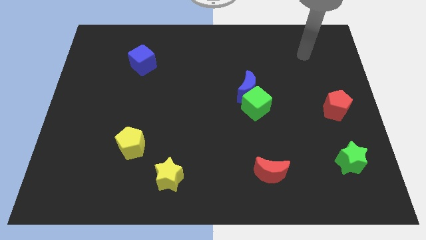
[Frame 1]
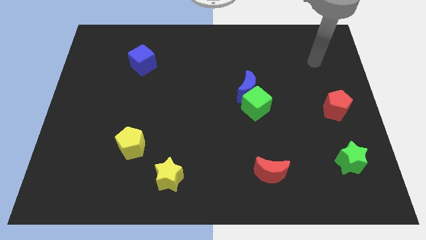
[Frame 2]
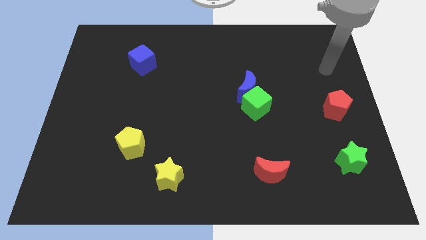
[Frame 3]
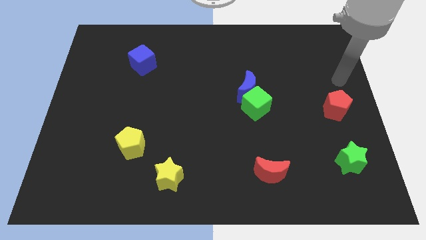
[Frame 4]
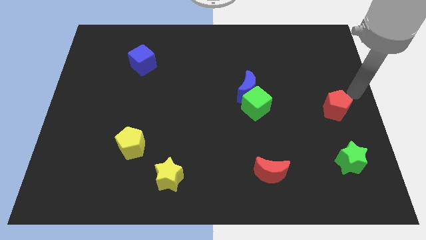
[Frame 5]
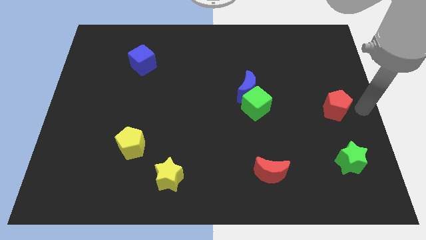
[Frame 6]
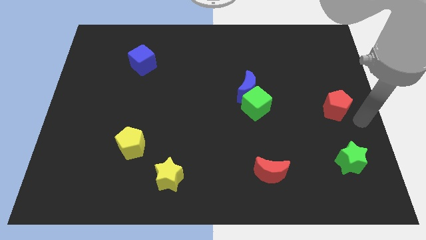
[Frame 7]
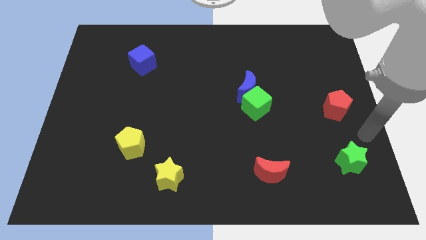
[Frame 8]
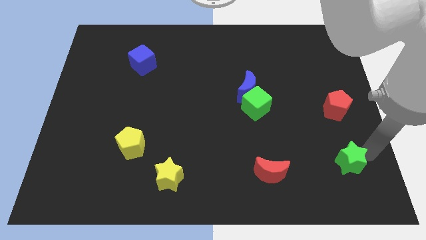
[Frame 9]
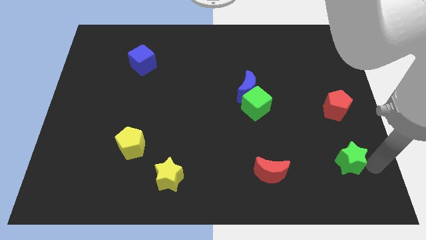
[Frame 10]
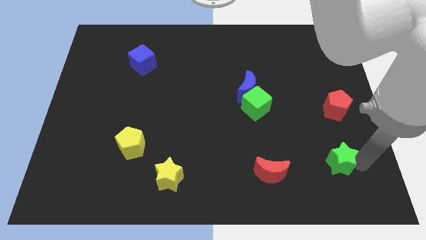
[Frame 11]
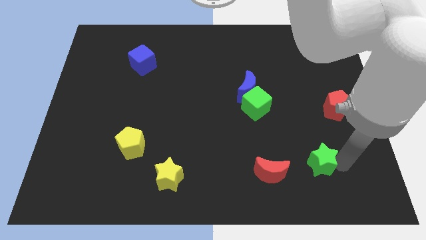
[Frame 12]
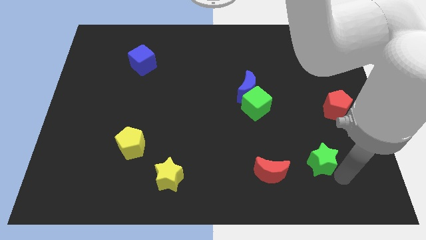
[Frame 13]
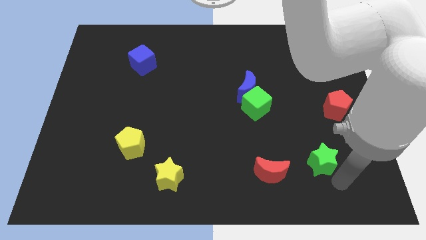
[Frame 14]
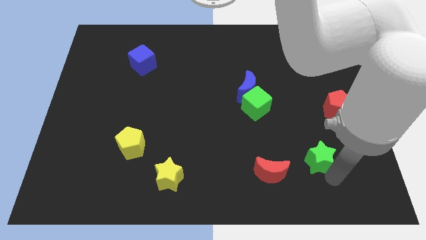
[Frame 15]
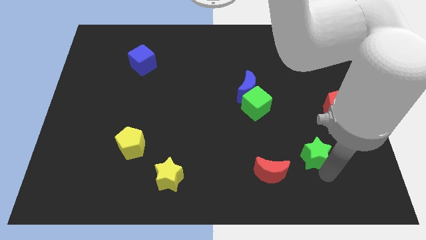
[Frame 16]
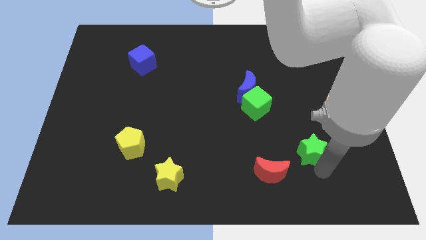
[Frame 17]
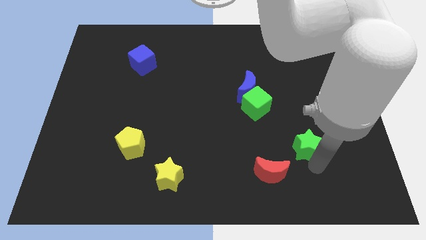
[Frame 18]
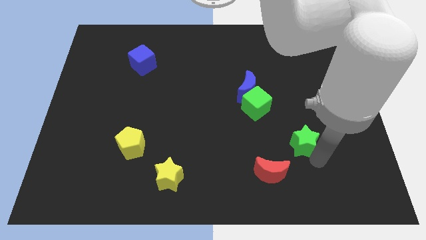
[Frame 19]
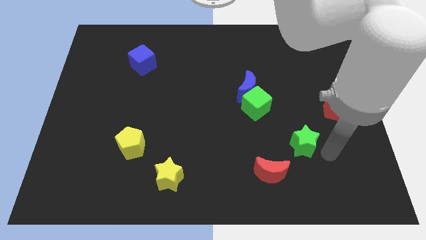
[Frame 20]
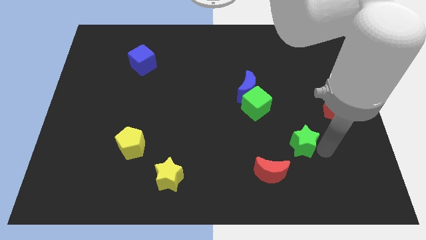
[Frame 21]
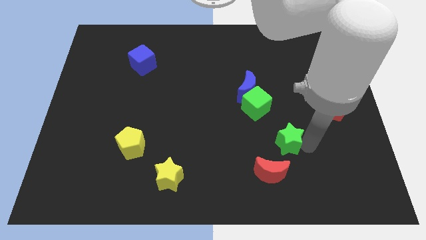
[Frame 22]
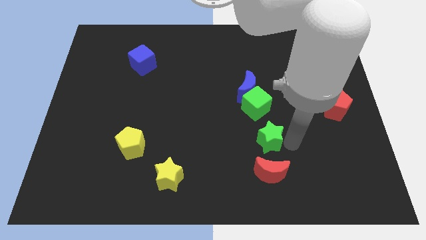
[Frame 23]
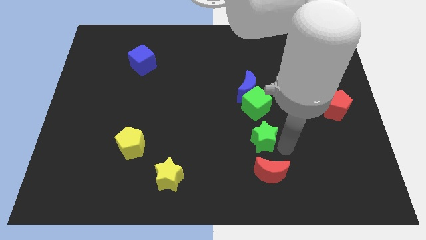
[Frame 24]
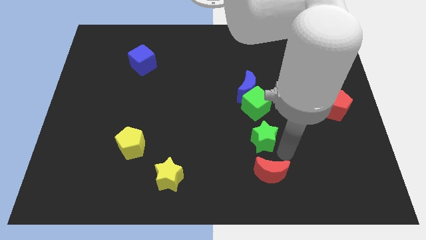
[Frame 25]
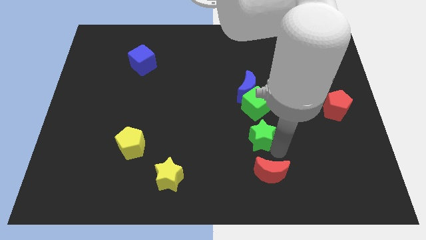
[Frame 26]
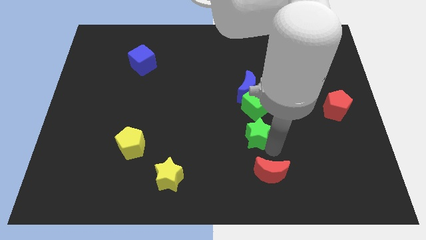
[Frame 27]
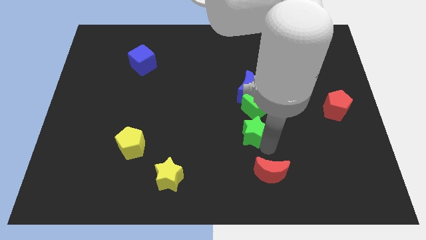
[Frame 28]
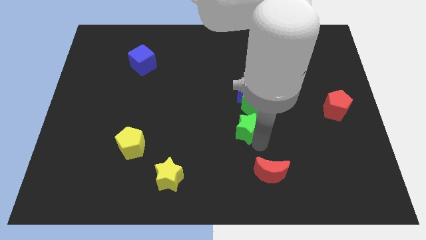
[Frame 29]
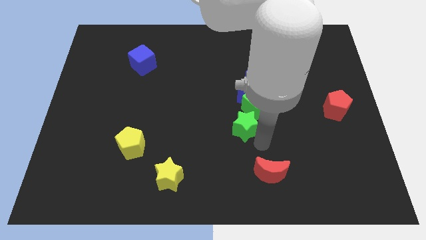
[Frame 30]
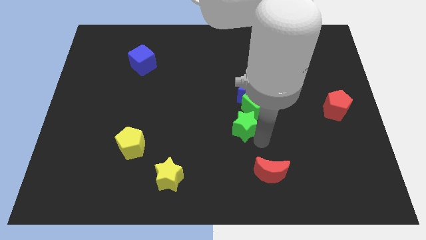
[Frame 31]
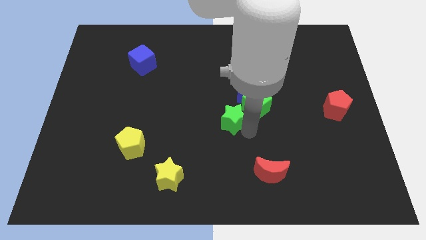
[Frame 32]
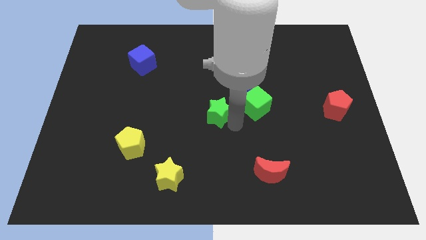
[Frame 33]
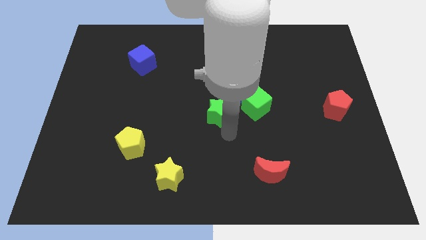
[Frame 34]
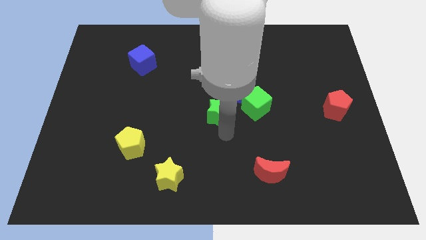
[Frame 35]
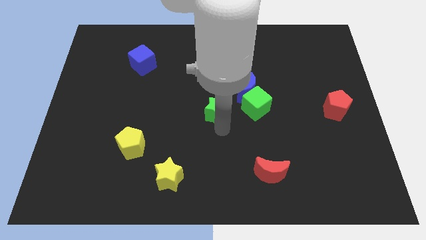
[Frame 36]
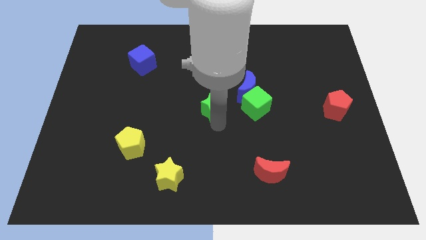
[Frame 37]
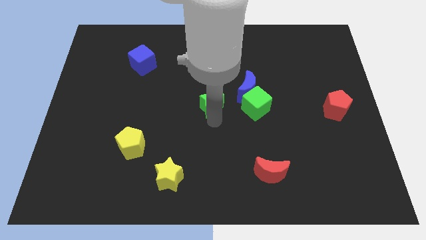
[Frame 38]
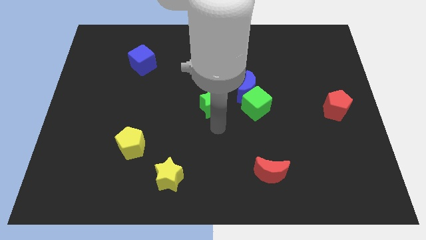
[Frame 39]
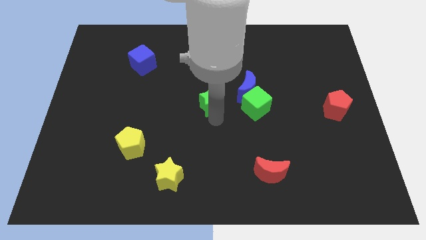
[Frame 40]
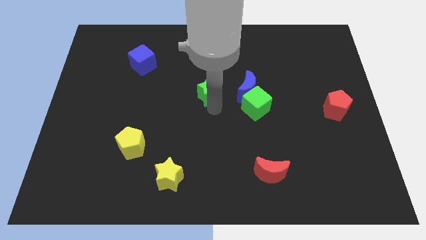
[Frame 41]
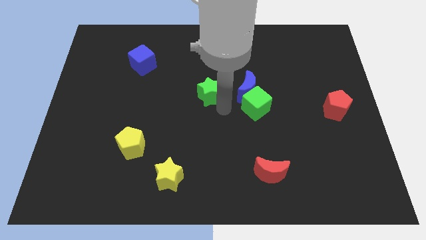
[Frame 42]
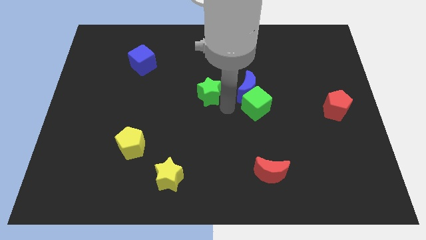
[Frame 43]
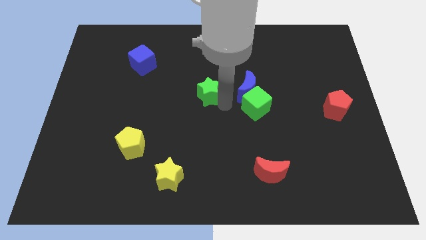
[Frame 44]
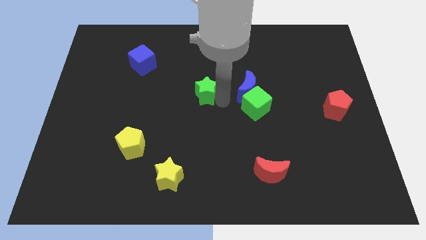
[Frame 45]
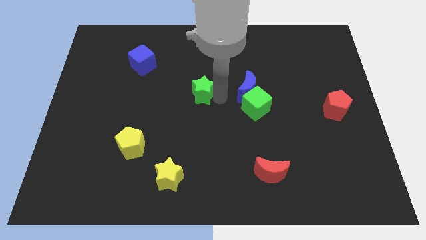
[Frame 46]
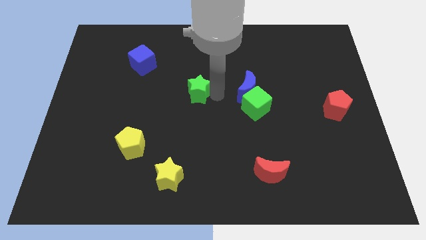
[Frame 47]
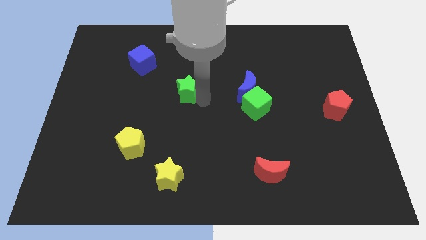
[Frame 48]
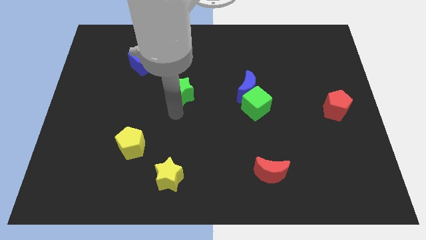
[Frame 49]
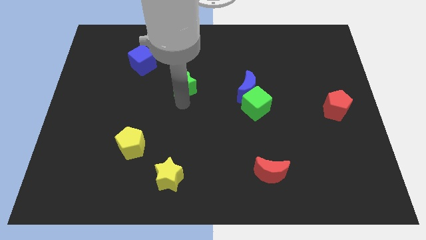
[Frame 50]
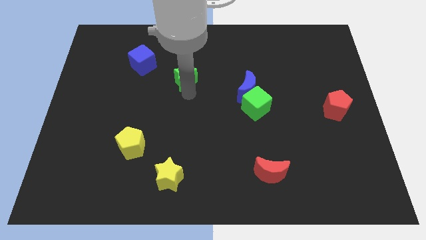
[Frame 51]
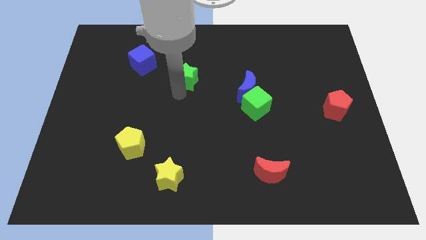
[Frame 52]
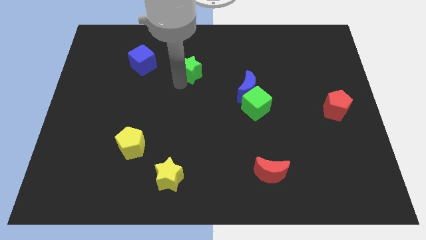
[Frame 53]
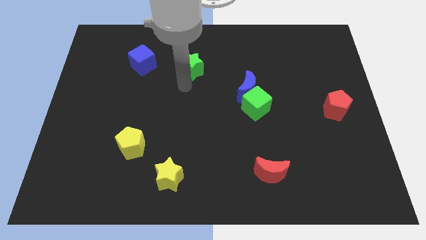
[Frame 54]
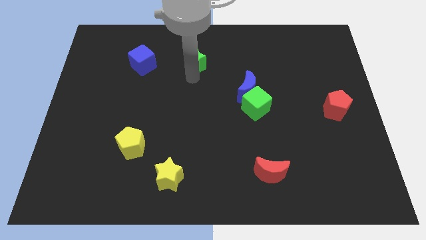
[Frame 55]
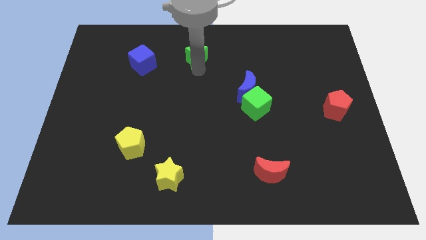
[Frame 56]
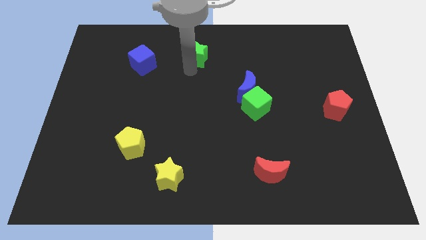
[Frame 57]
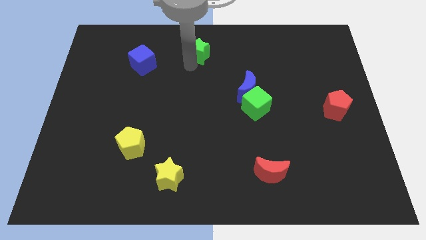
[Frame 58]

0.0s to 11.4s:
push the green star to the top side
